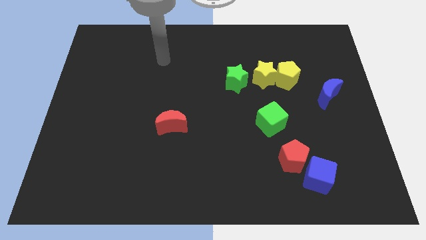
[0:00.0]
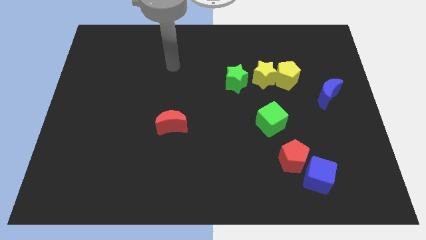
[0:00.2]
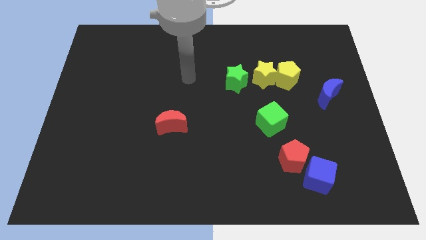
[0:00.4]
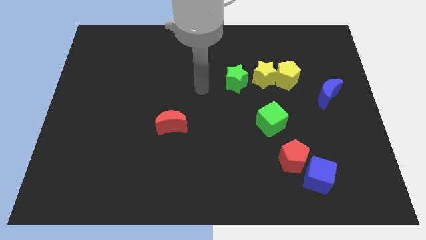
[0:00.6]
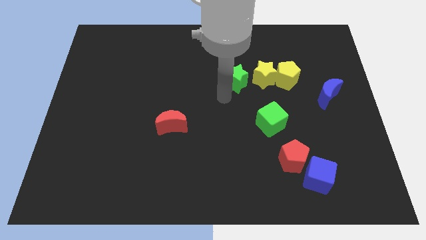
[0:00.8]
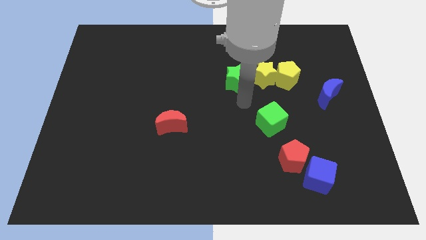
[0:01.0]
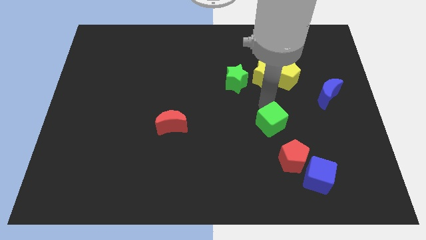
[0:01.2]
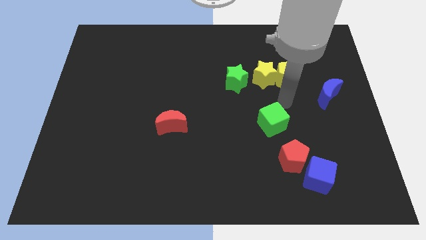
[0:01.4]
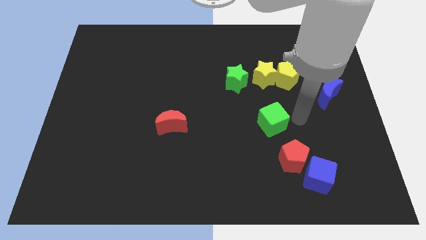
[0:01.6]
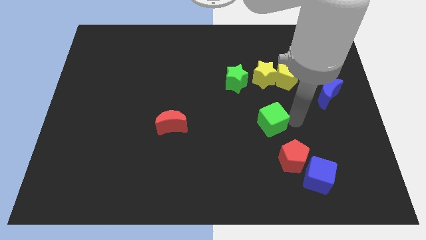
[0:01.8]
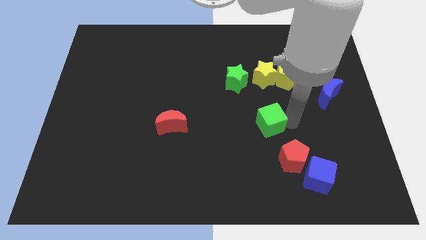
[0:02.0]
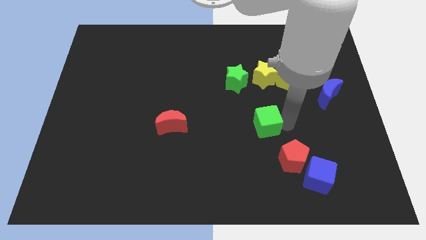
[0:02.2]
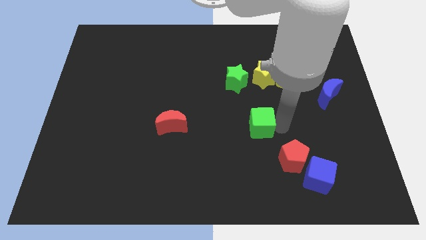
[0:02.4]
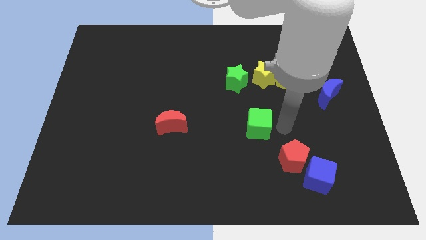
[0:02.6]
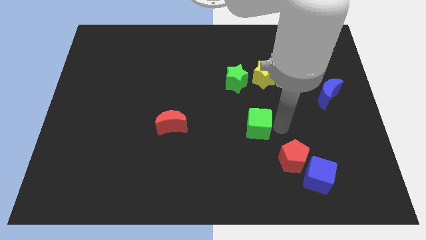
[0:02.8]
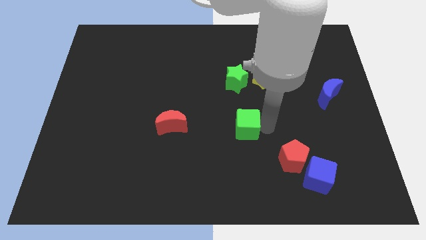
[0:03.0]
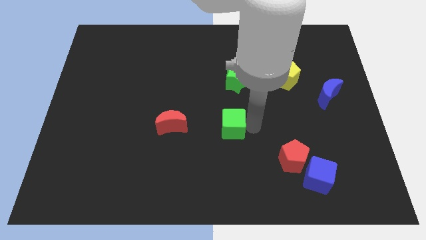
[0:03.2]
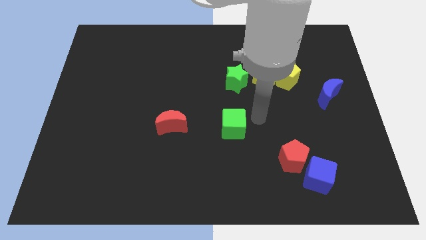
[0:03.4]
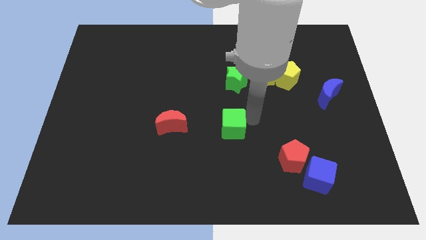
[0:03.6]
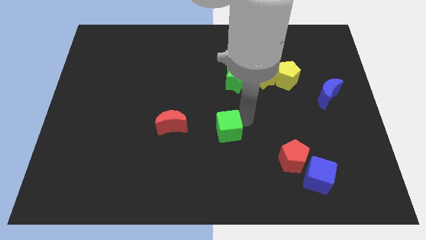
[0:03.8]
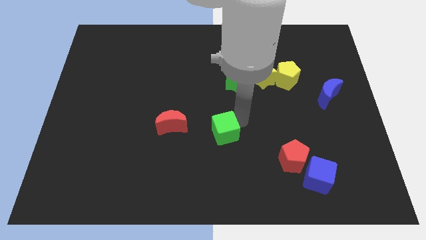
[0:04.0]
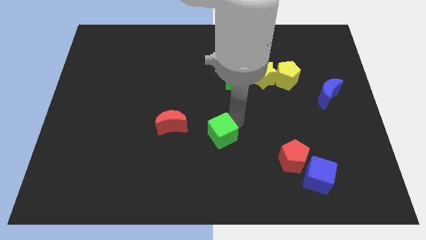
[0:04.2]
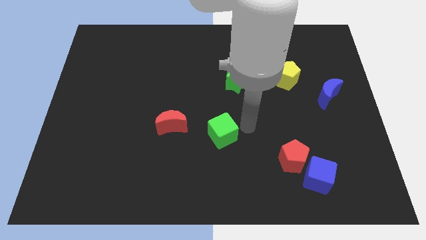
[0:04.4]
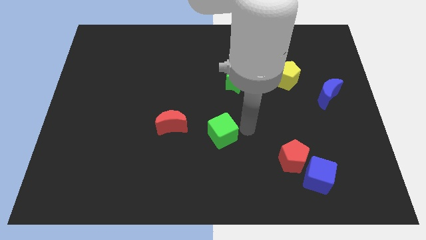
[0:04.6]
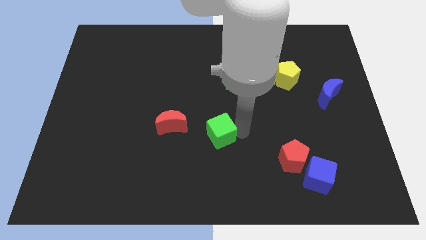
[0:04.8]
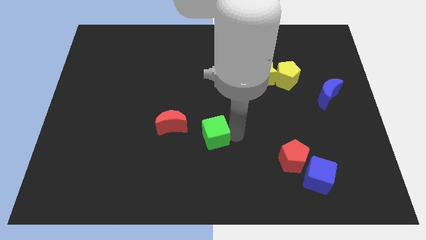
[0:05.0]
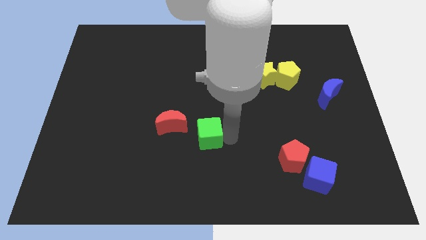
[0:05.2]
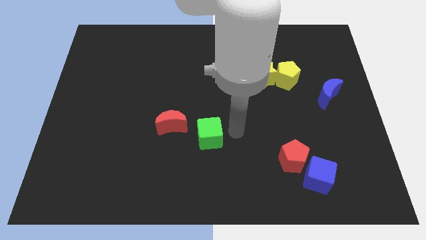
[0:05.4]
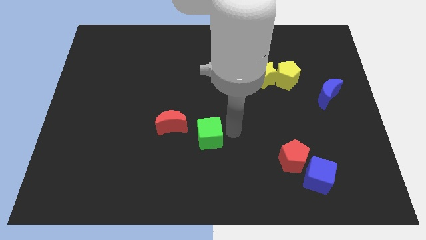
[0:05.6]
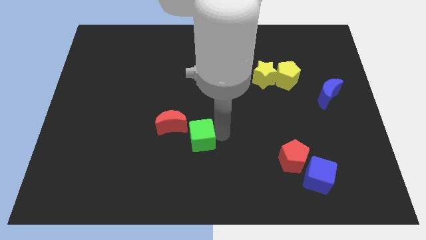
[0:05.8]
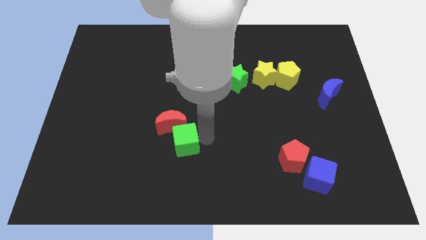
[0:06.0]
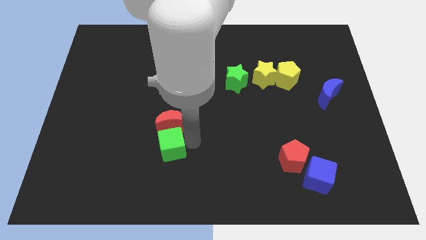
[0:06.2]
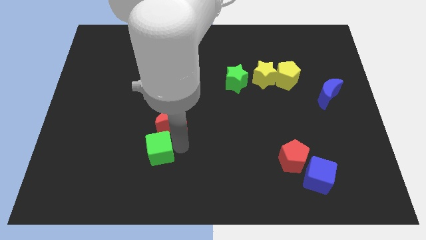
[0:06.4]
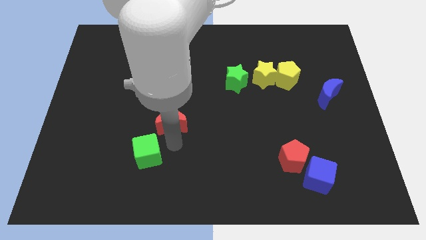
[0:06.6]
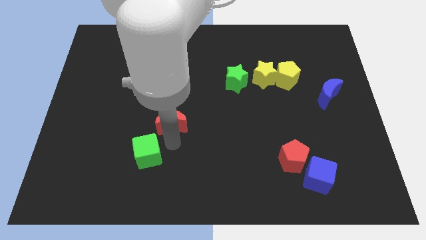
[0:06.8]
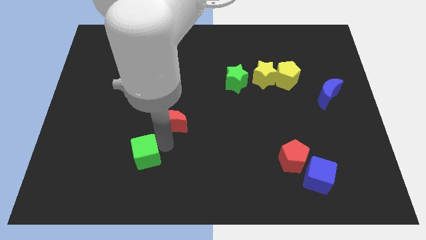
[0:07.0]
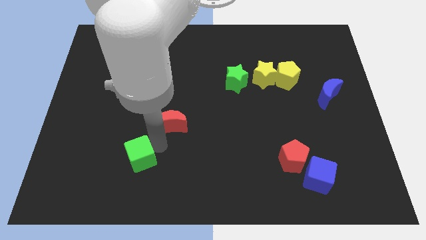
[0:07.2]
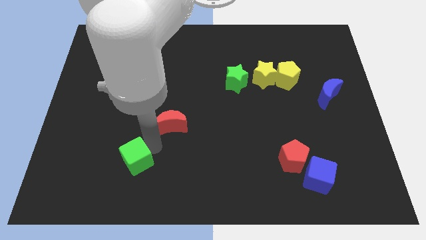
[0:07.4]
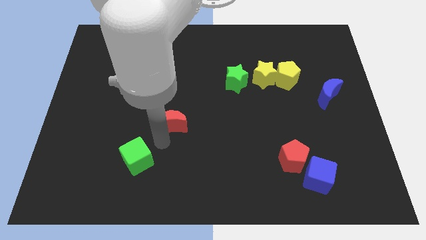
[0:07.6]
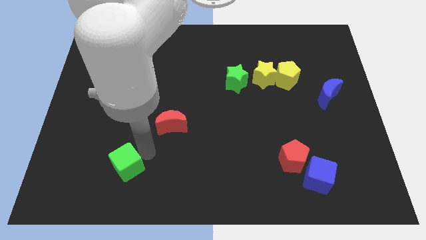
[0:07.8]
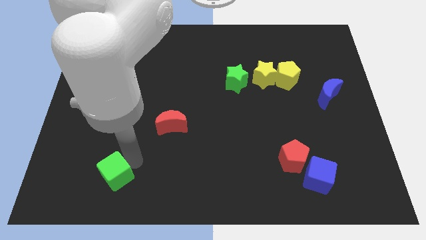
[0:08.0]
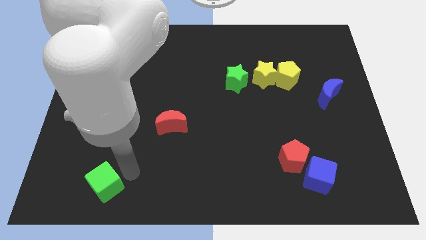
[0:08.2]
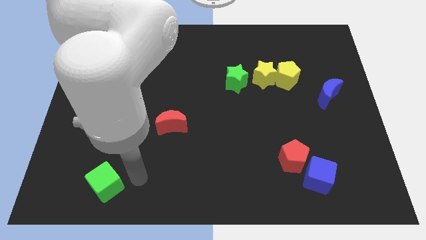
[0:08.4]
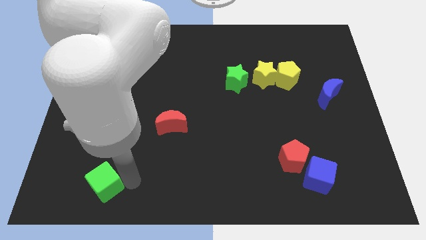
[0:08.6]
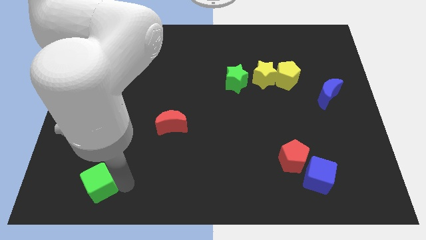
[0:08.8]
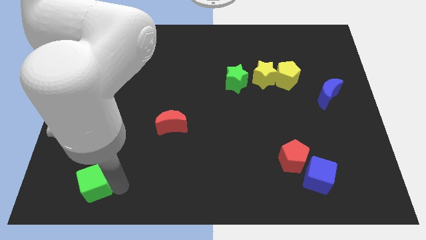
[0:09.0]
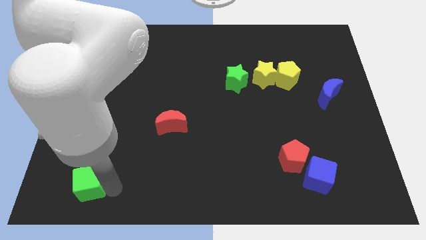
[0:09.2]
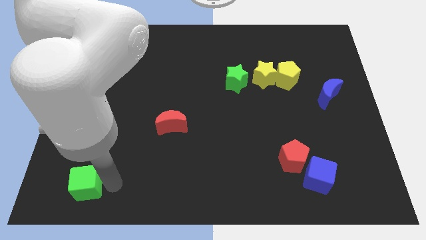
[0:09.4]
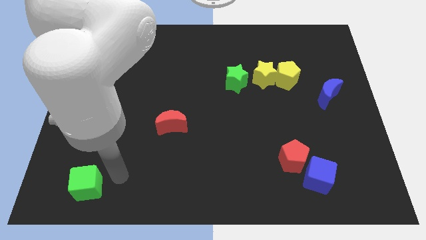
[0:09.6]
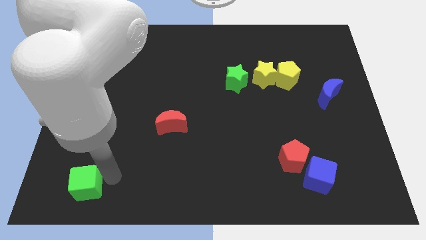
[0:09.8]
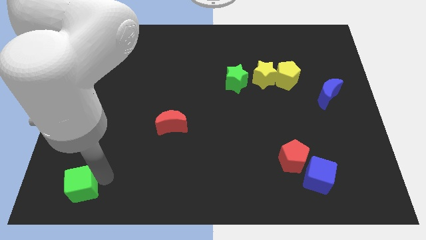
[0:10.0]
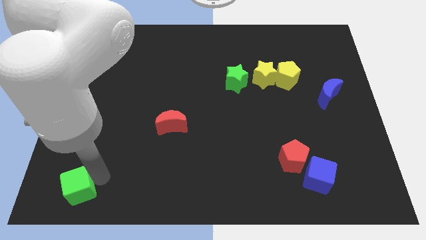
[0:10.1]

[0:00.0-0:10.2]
move the green cube to the lower left corner

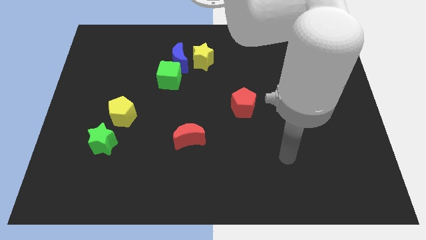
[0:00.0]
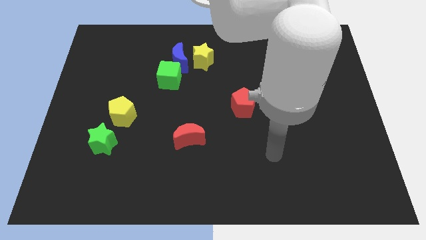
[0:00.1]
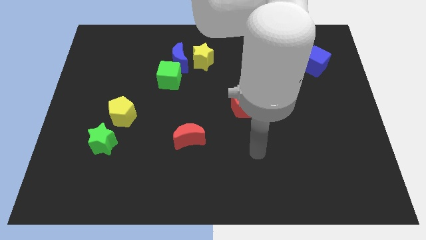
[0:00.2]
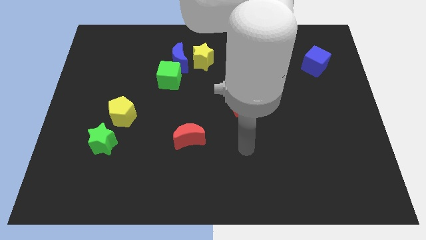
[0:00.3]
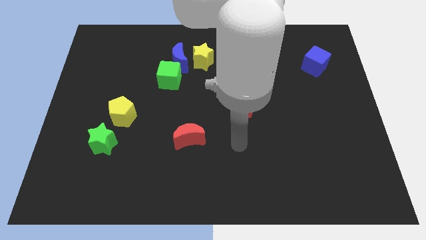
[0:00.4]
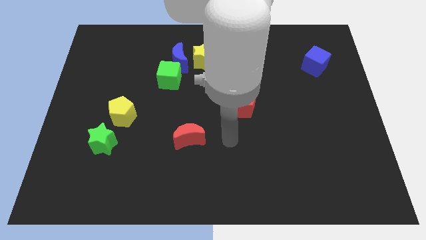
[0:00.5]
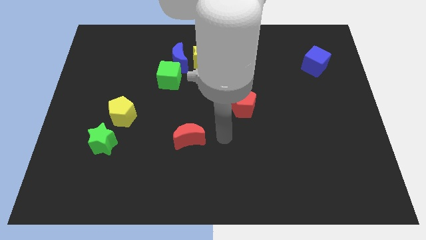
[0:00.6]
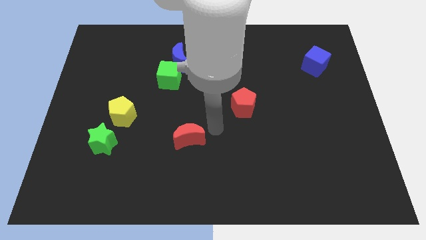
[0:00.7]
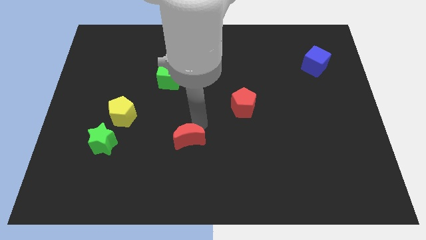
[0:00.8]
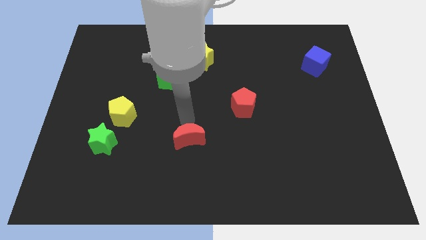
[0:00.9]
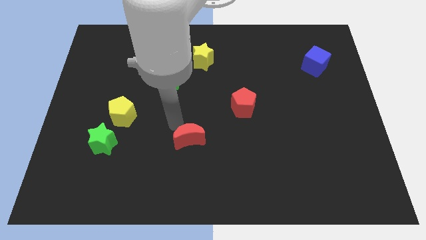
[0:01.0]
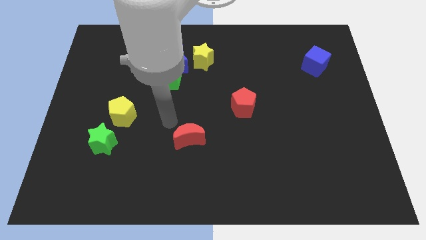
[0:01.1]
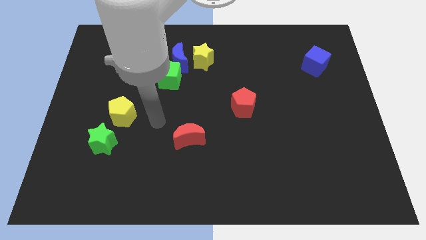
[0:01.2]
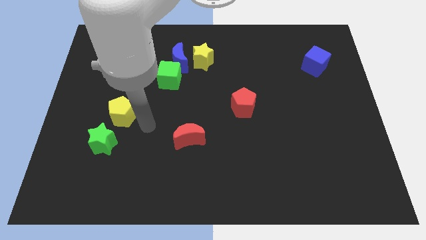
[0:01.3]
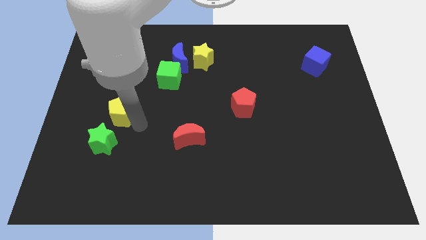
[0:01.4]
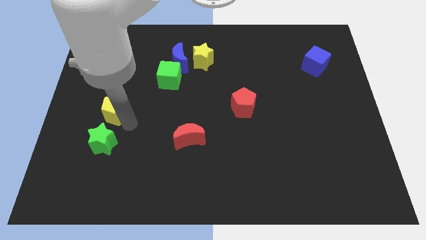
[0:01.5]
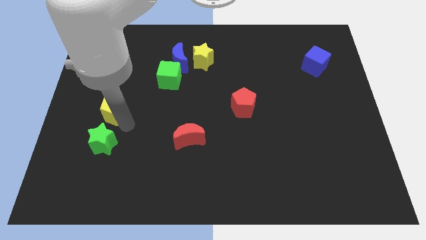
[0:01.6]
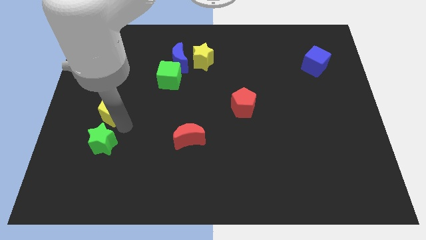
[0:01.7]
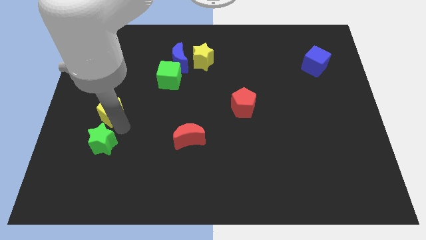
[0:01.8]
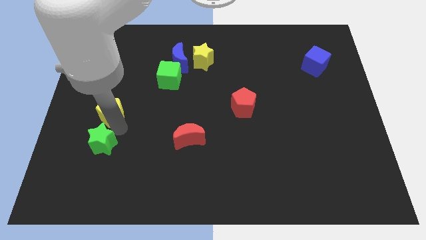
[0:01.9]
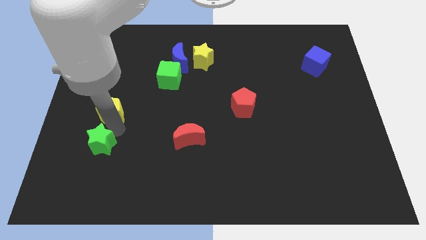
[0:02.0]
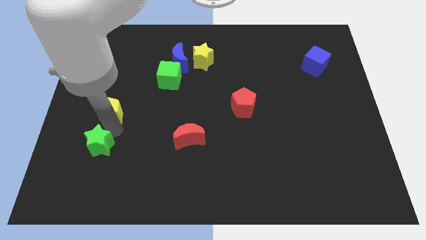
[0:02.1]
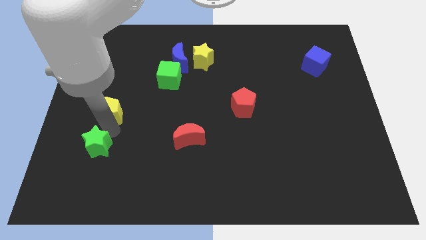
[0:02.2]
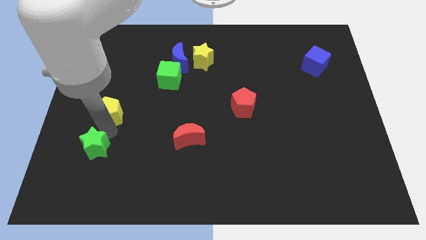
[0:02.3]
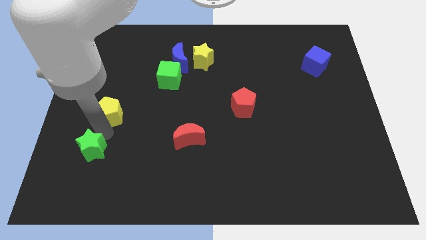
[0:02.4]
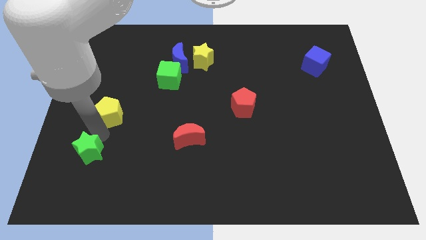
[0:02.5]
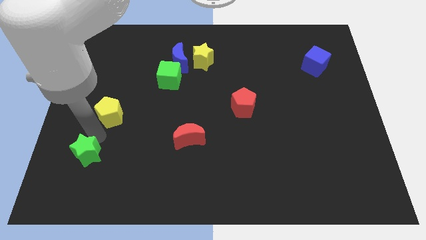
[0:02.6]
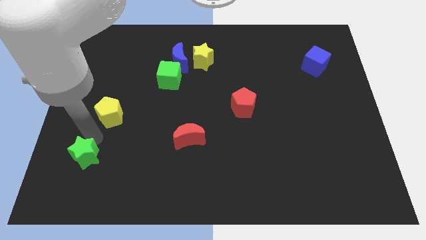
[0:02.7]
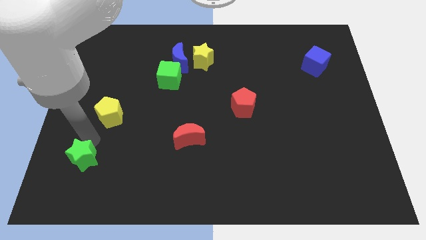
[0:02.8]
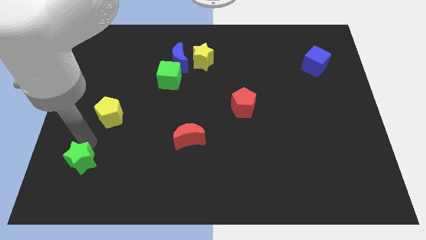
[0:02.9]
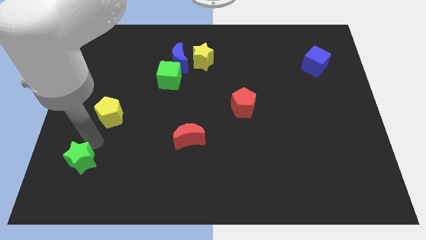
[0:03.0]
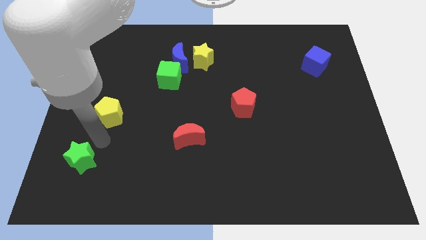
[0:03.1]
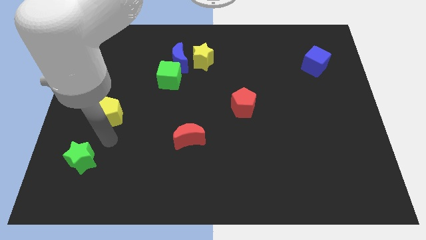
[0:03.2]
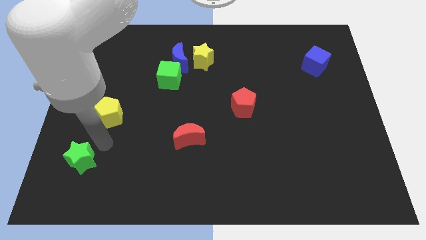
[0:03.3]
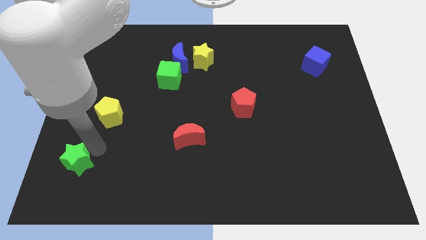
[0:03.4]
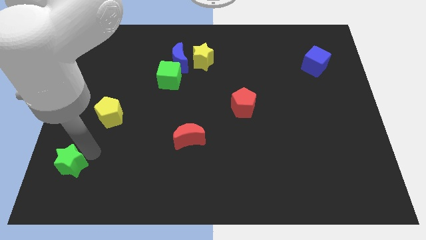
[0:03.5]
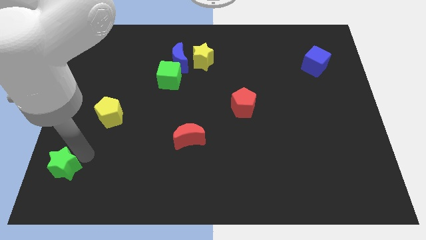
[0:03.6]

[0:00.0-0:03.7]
put the green star to the bottom left of the board
